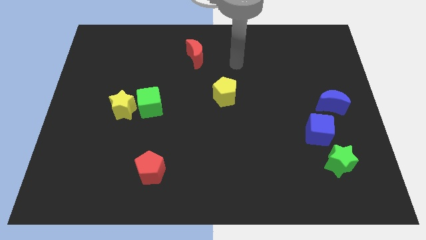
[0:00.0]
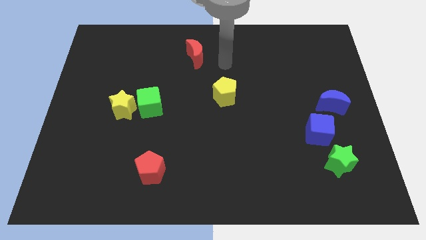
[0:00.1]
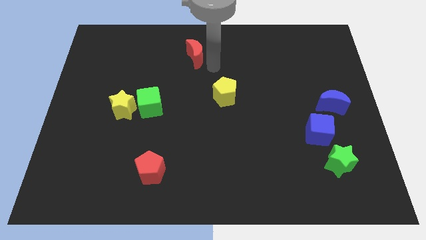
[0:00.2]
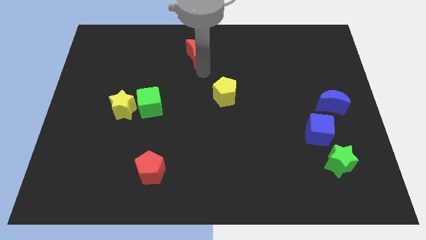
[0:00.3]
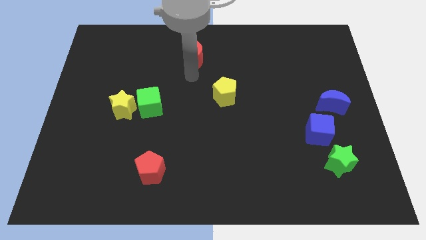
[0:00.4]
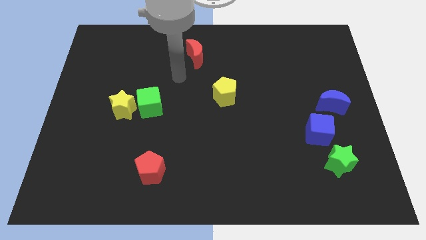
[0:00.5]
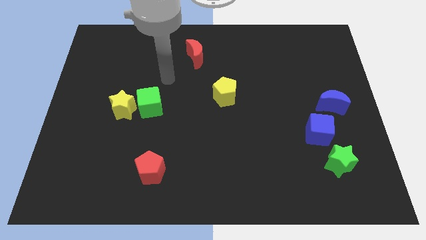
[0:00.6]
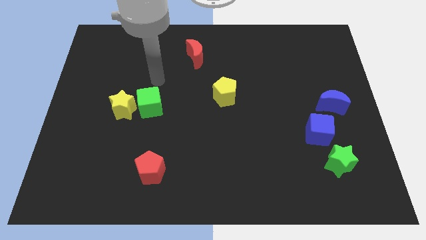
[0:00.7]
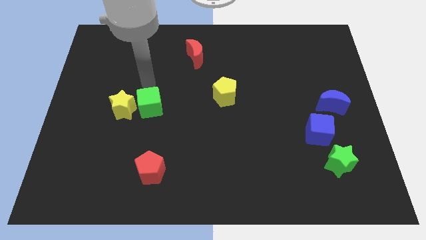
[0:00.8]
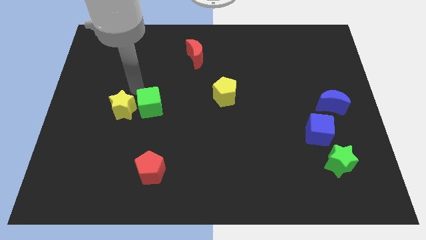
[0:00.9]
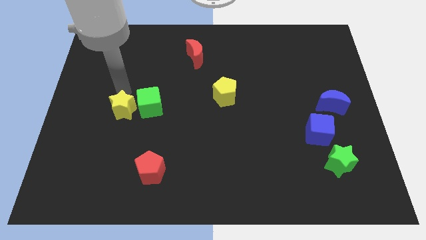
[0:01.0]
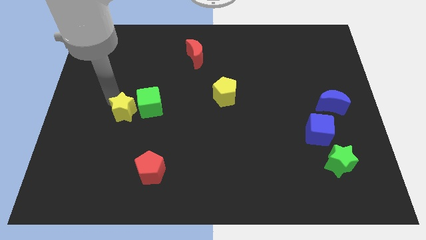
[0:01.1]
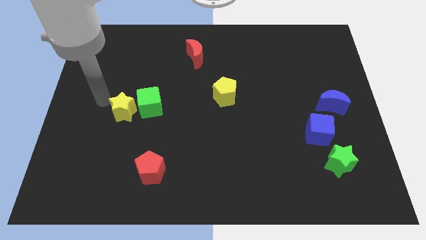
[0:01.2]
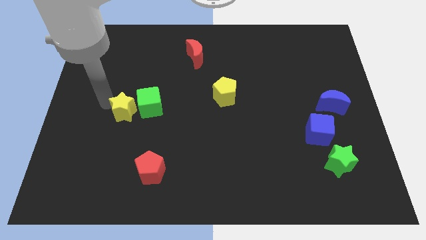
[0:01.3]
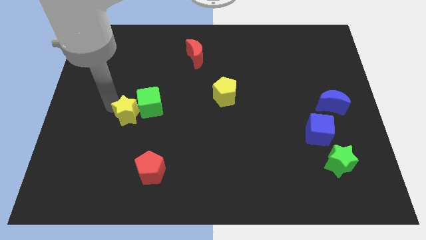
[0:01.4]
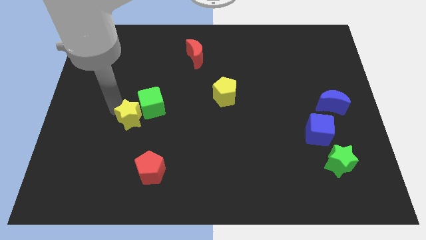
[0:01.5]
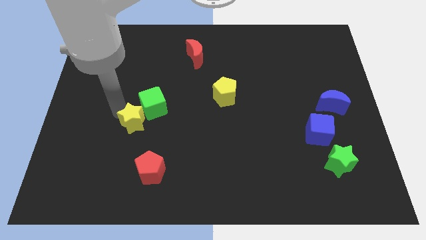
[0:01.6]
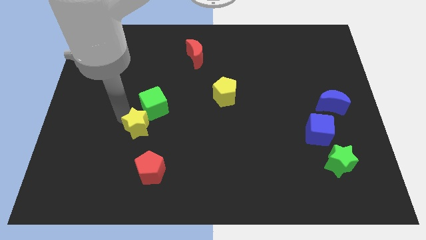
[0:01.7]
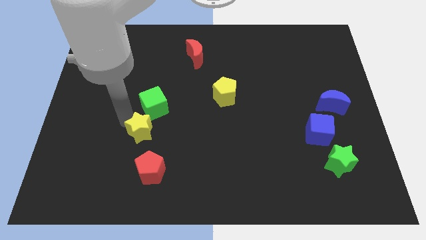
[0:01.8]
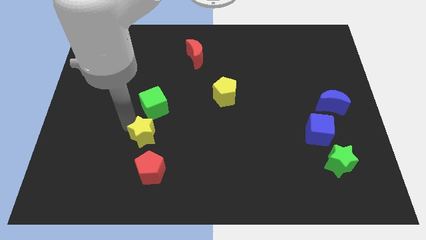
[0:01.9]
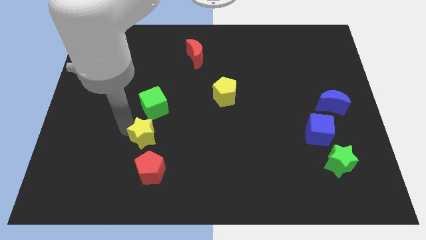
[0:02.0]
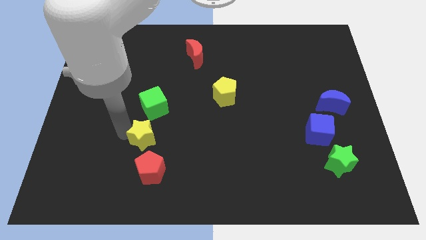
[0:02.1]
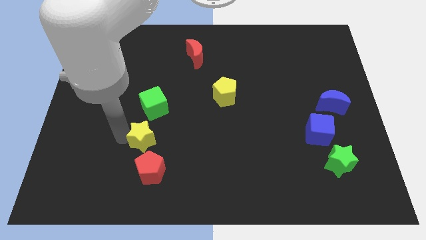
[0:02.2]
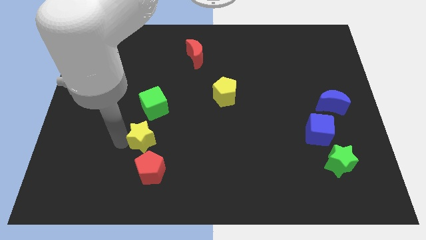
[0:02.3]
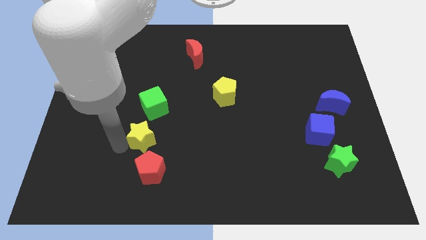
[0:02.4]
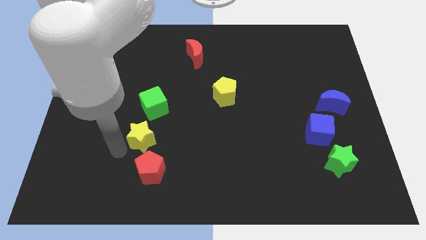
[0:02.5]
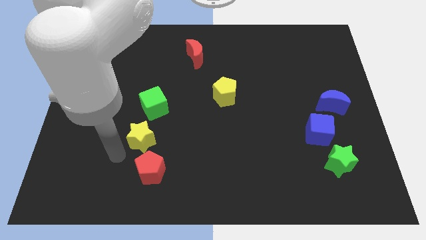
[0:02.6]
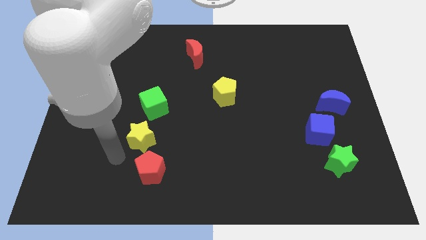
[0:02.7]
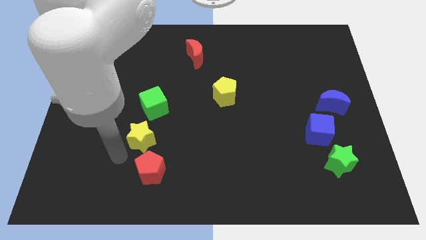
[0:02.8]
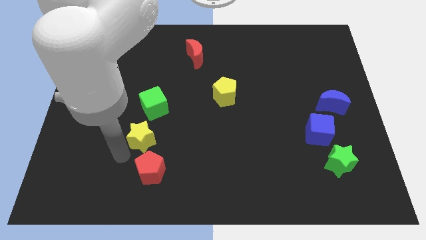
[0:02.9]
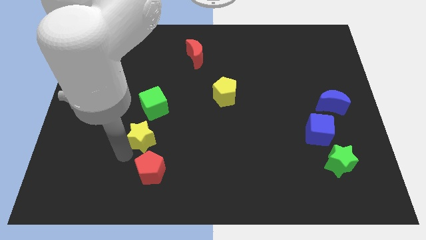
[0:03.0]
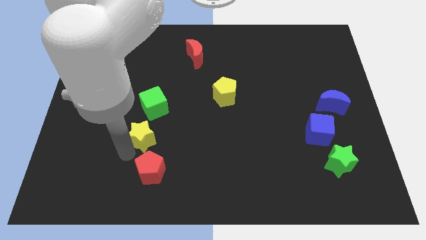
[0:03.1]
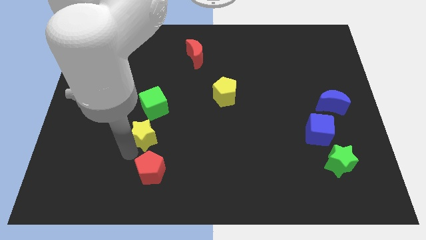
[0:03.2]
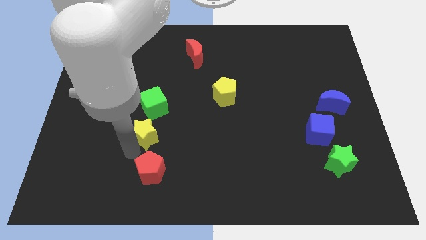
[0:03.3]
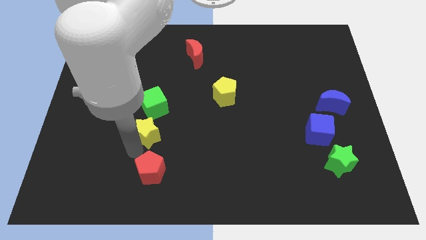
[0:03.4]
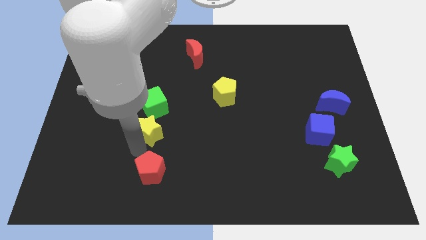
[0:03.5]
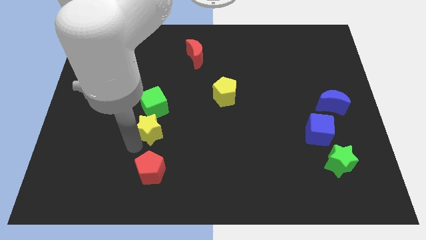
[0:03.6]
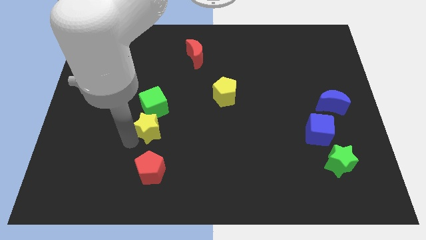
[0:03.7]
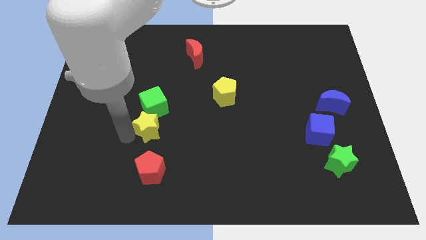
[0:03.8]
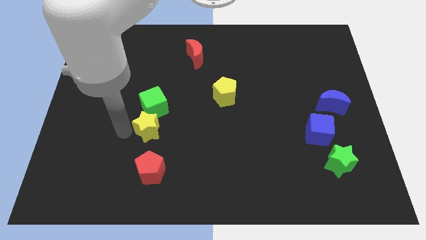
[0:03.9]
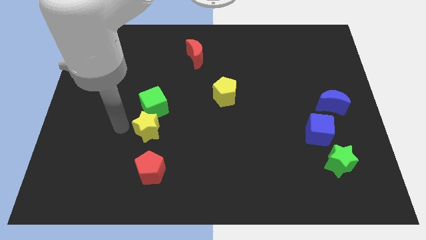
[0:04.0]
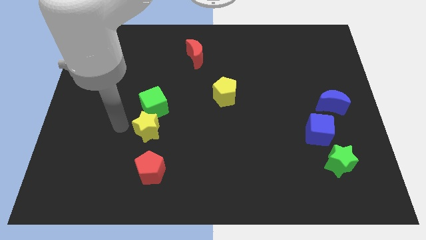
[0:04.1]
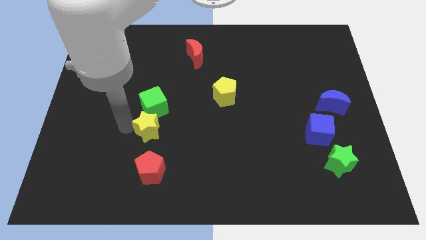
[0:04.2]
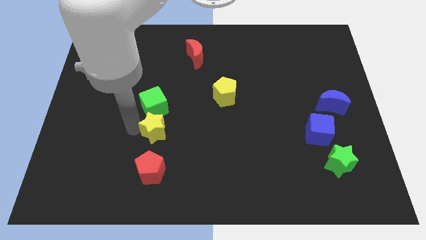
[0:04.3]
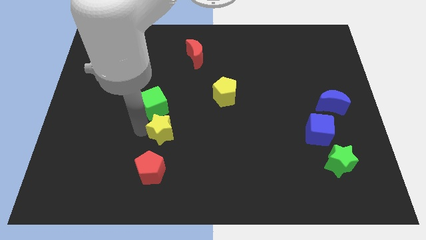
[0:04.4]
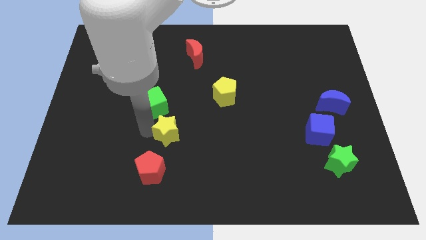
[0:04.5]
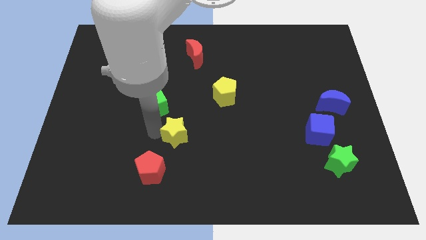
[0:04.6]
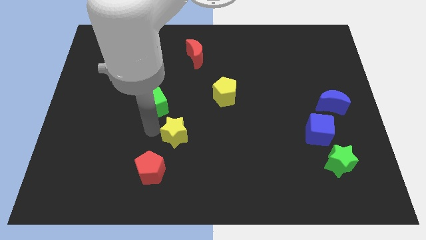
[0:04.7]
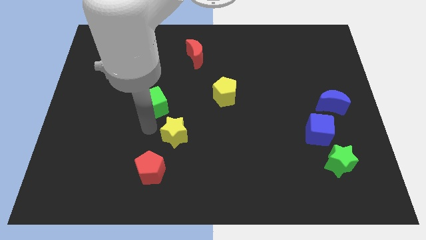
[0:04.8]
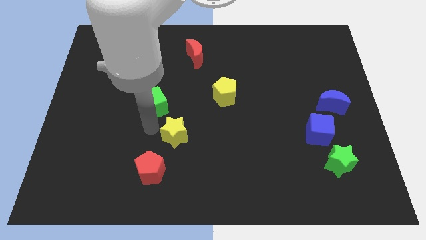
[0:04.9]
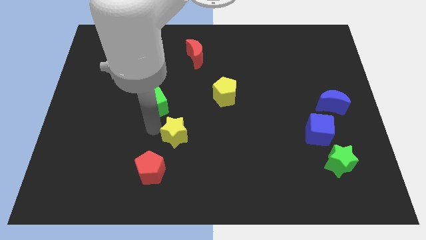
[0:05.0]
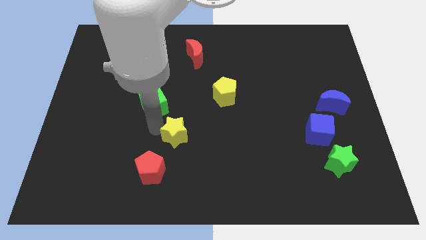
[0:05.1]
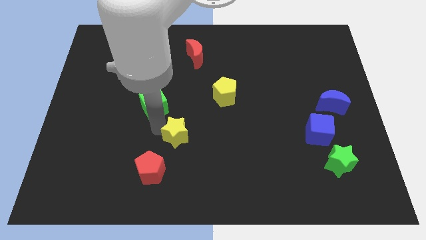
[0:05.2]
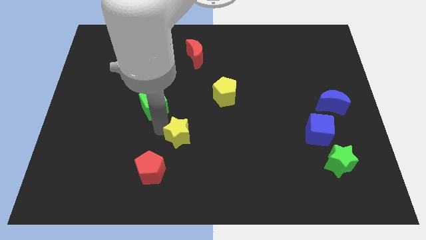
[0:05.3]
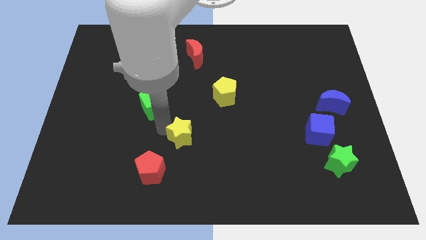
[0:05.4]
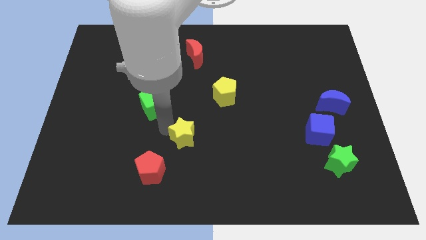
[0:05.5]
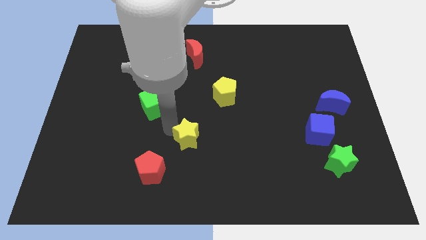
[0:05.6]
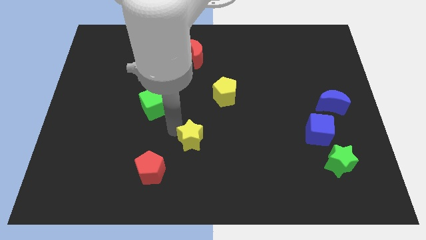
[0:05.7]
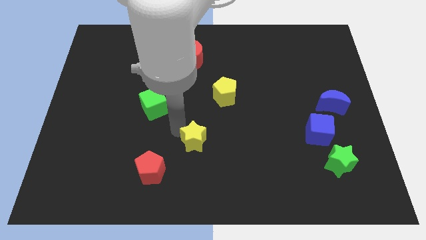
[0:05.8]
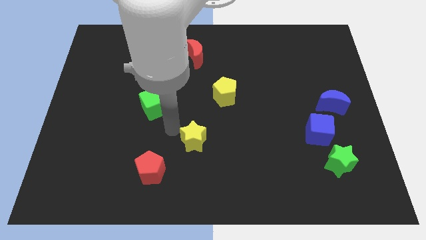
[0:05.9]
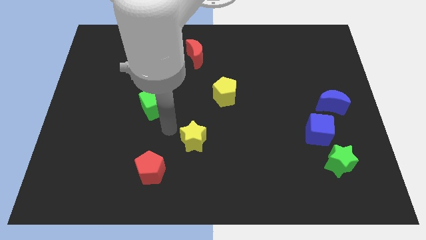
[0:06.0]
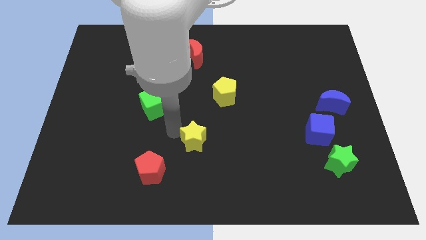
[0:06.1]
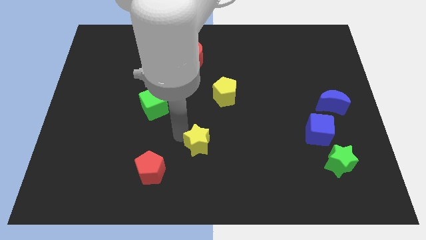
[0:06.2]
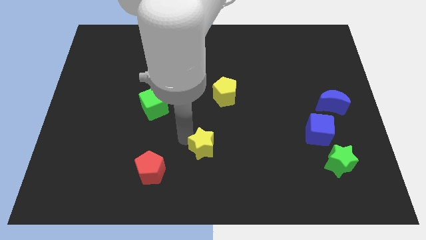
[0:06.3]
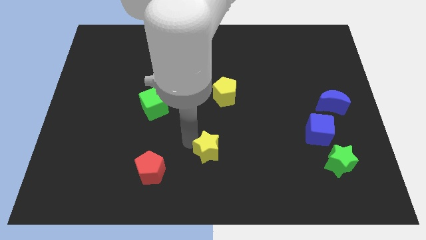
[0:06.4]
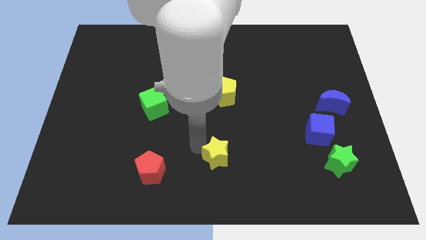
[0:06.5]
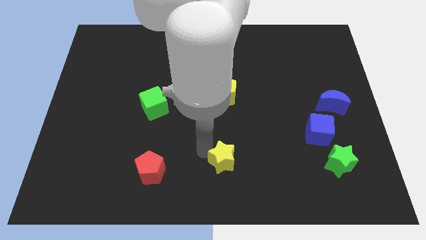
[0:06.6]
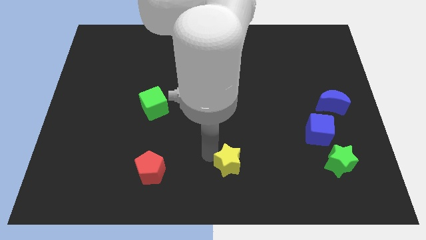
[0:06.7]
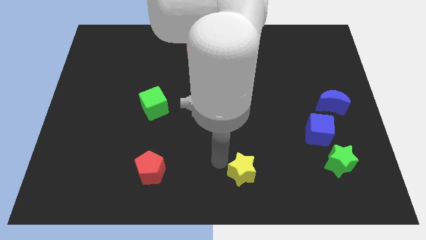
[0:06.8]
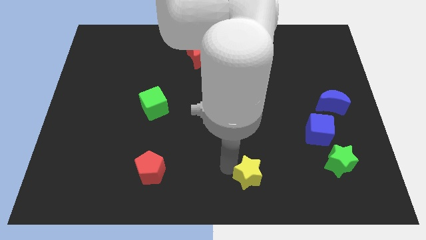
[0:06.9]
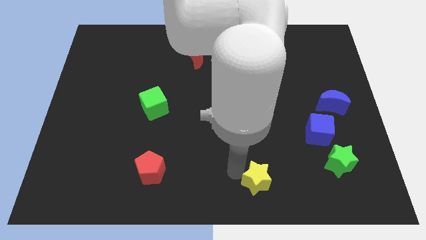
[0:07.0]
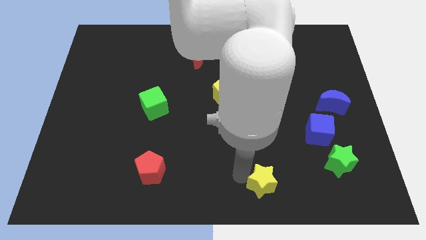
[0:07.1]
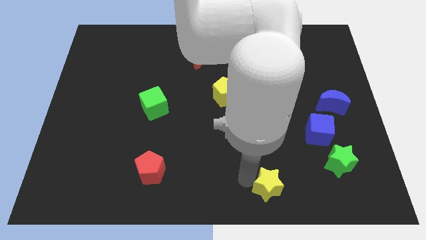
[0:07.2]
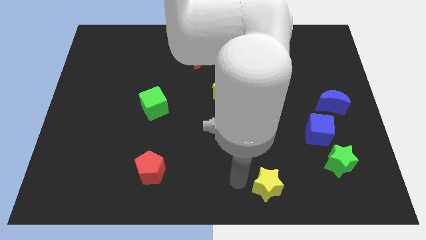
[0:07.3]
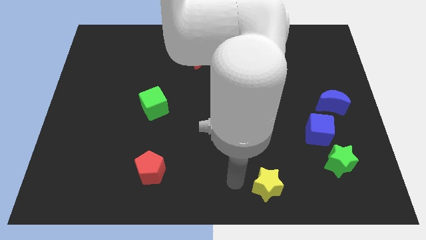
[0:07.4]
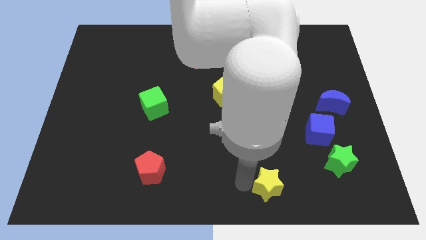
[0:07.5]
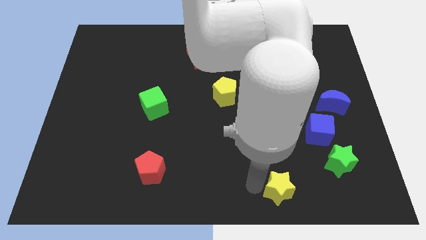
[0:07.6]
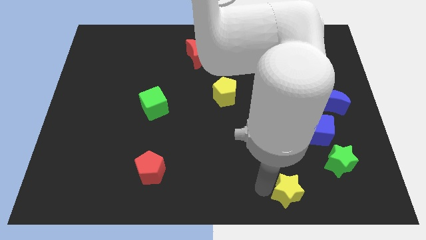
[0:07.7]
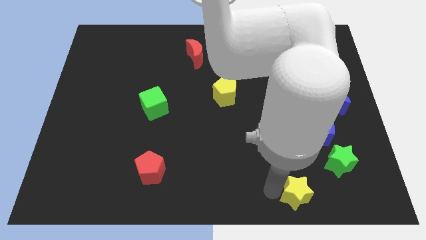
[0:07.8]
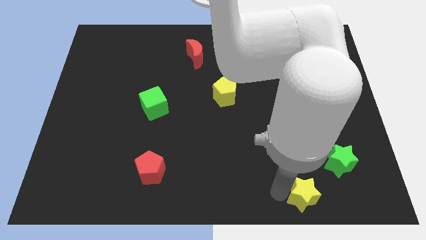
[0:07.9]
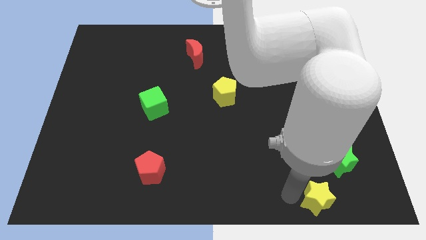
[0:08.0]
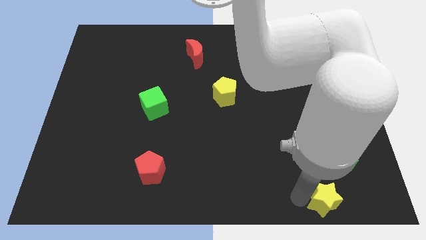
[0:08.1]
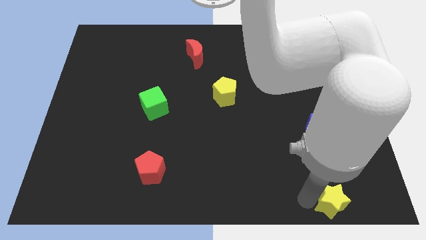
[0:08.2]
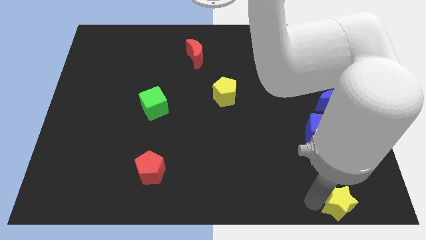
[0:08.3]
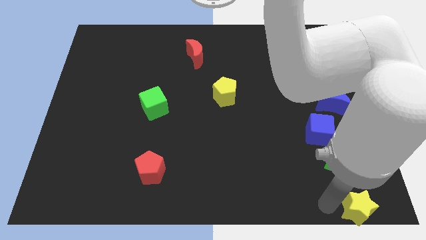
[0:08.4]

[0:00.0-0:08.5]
push the yellow star to the bottom right corner
